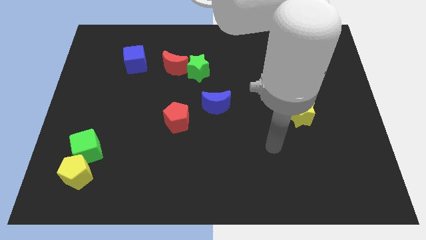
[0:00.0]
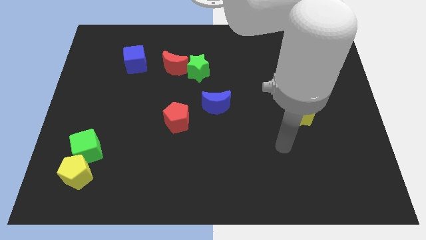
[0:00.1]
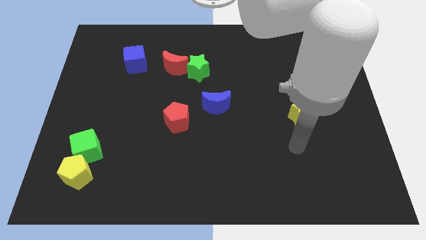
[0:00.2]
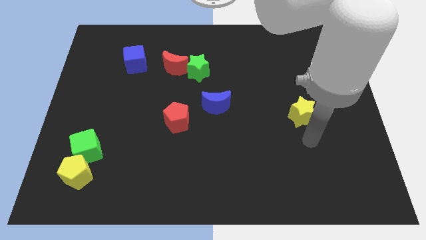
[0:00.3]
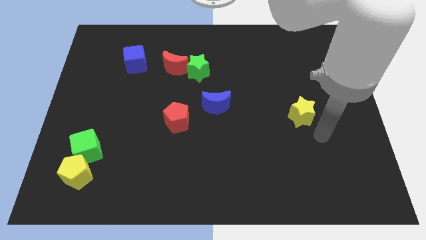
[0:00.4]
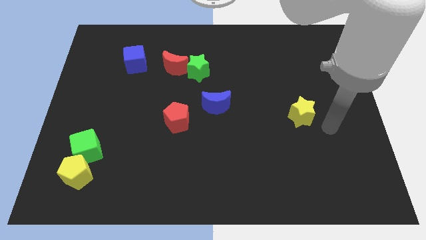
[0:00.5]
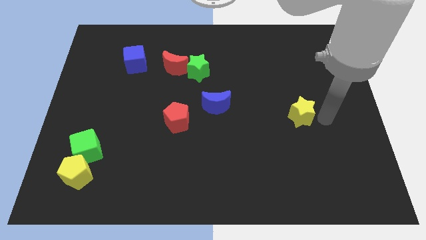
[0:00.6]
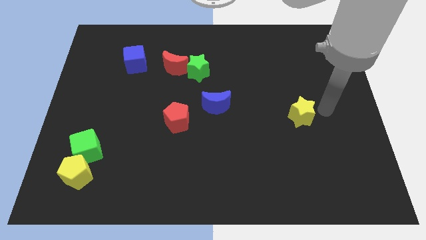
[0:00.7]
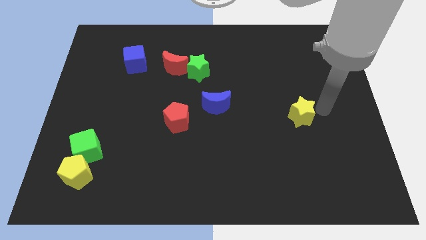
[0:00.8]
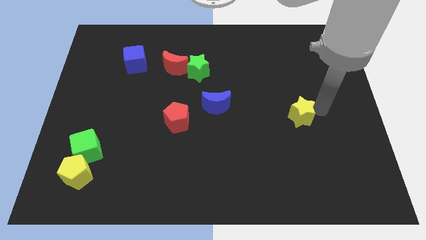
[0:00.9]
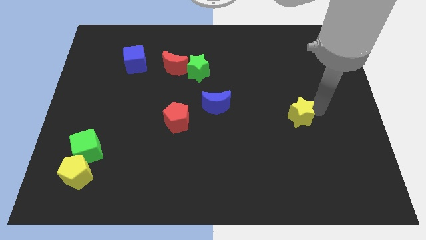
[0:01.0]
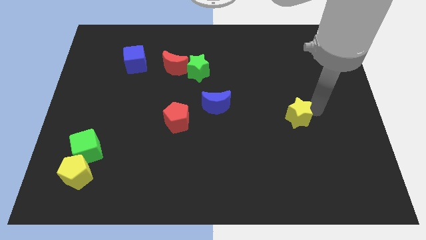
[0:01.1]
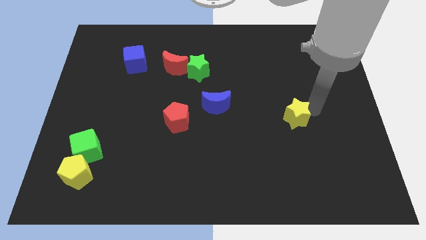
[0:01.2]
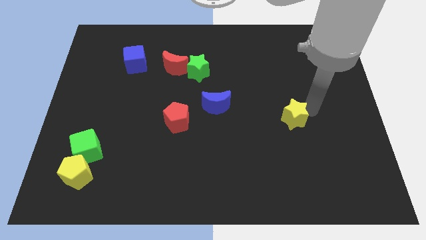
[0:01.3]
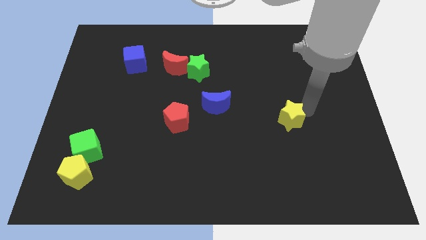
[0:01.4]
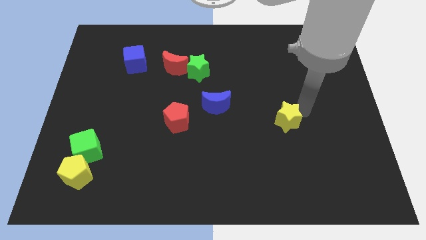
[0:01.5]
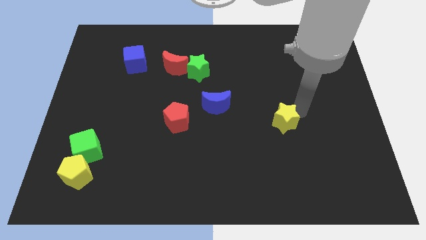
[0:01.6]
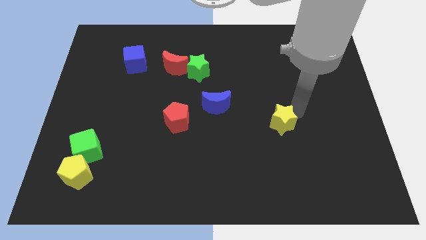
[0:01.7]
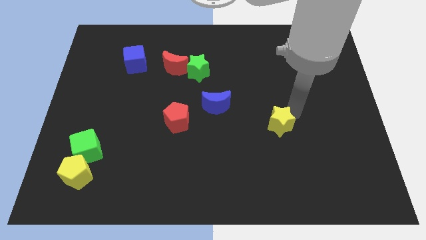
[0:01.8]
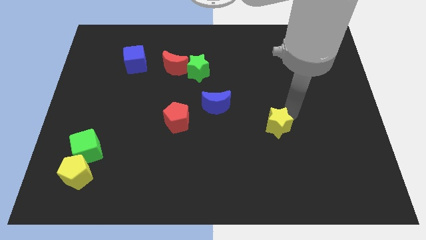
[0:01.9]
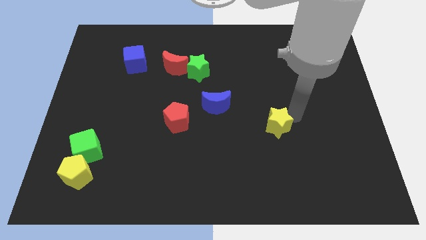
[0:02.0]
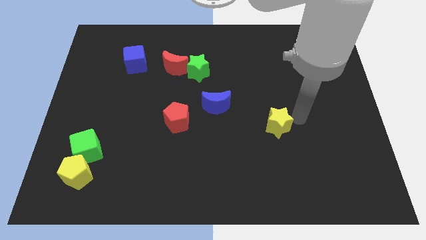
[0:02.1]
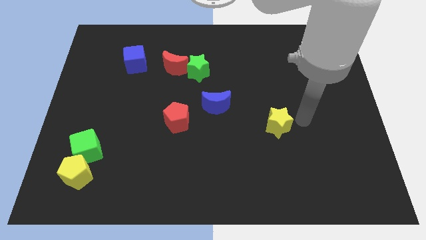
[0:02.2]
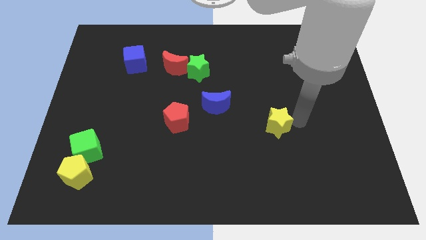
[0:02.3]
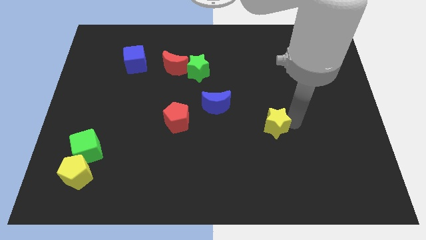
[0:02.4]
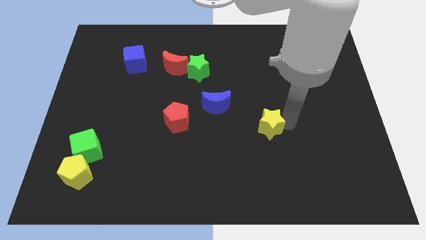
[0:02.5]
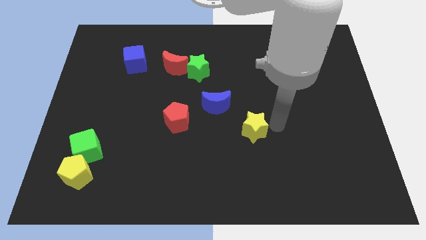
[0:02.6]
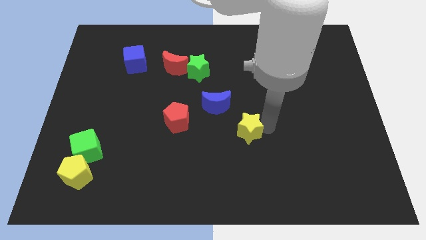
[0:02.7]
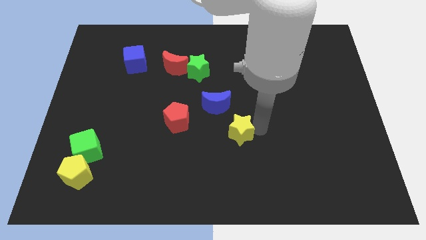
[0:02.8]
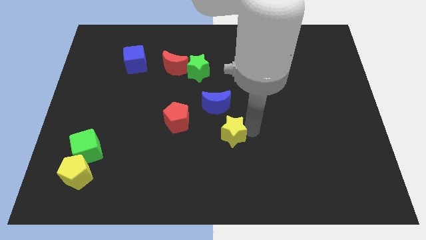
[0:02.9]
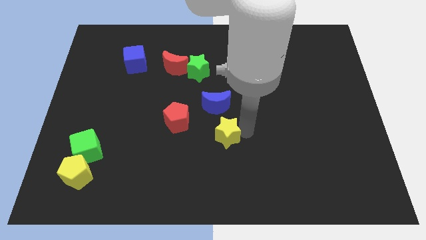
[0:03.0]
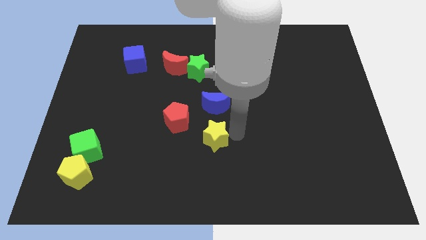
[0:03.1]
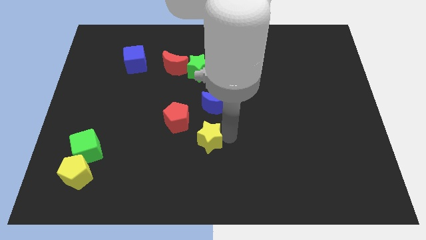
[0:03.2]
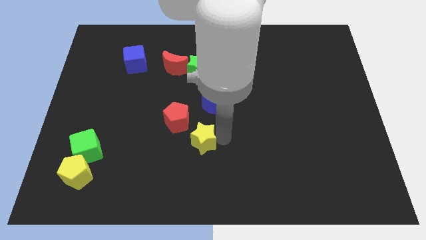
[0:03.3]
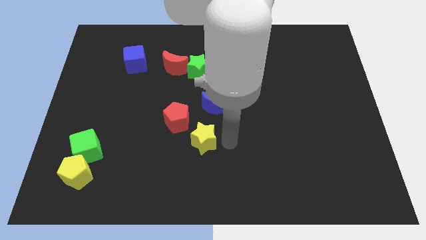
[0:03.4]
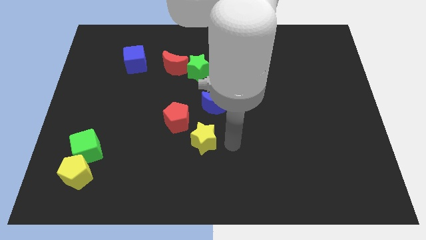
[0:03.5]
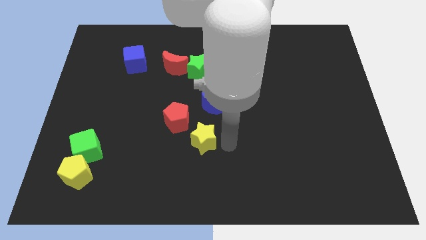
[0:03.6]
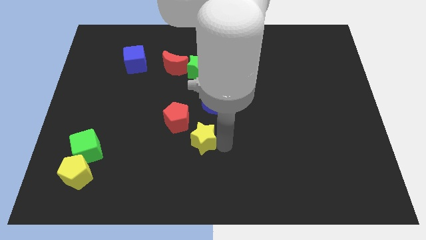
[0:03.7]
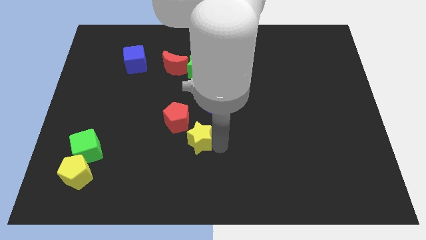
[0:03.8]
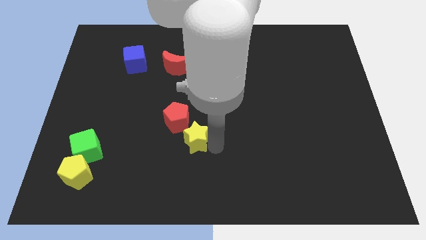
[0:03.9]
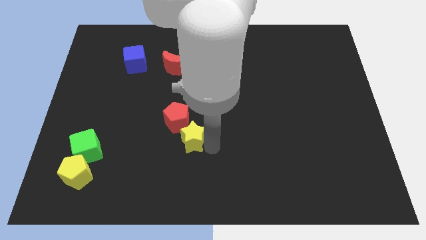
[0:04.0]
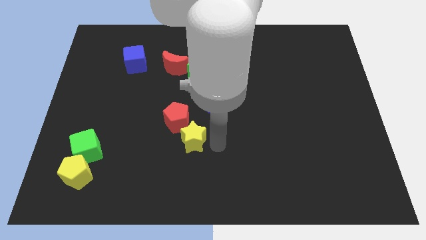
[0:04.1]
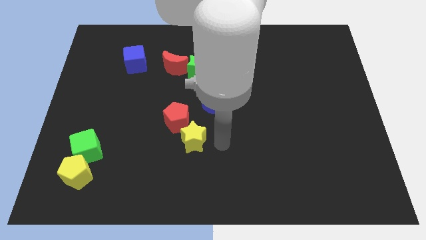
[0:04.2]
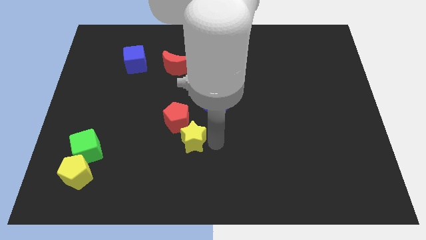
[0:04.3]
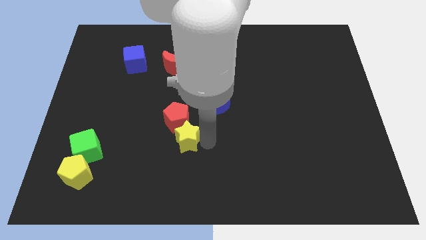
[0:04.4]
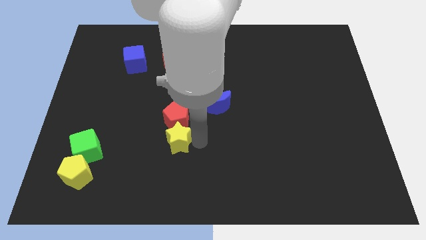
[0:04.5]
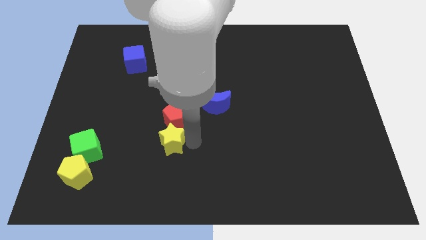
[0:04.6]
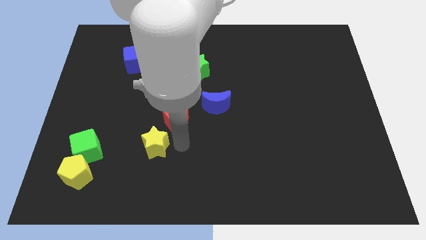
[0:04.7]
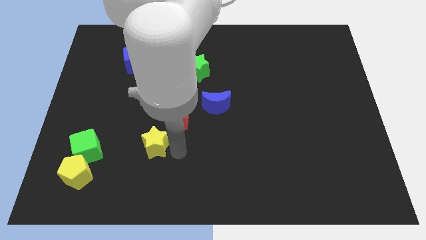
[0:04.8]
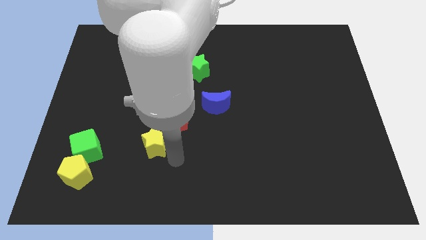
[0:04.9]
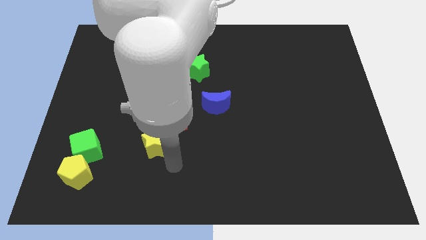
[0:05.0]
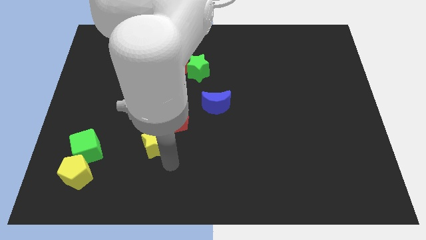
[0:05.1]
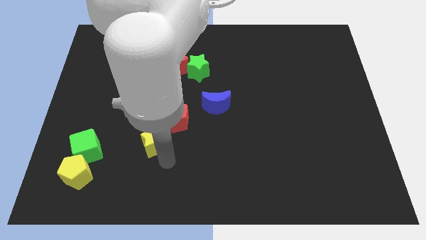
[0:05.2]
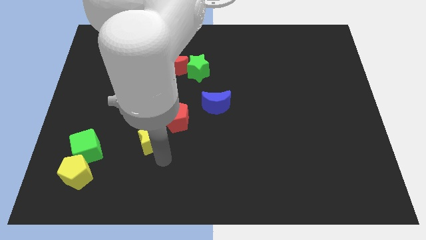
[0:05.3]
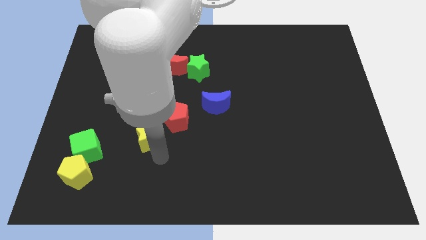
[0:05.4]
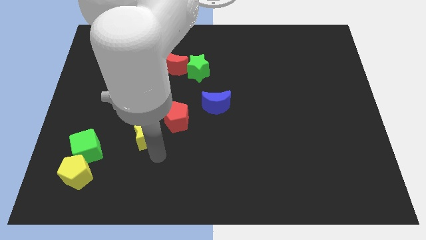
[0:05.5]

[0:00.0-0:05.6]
put the yellow star to the left of the red pentagon

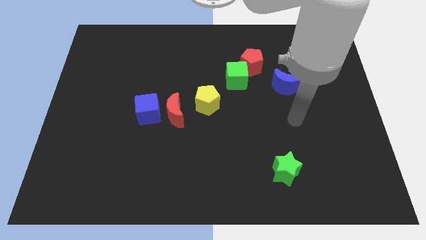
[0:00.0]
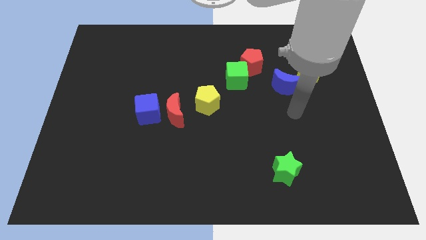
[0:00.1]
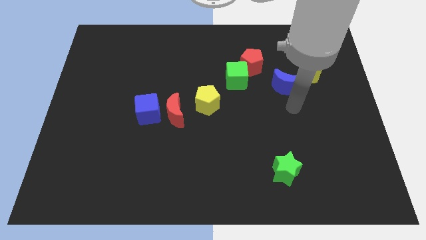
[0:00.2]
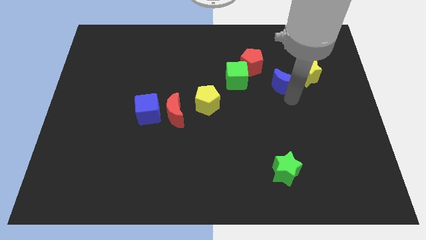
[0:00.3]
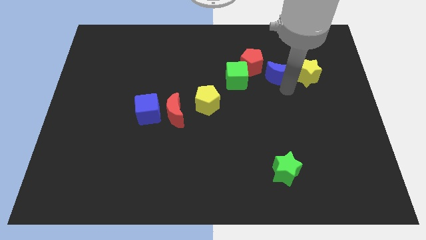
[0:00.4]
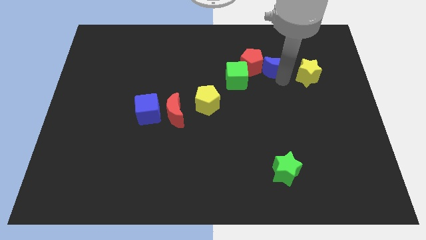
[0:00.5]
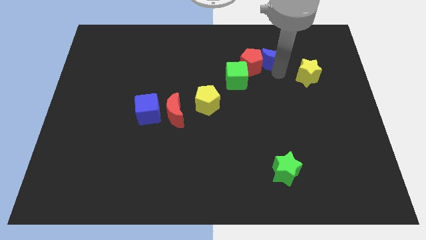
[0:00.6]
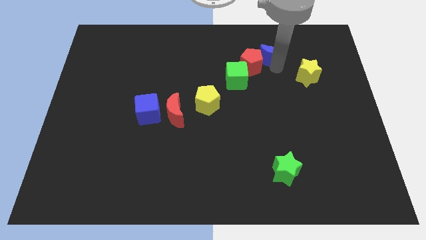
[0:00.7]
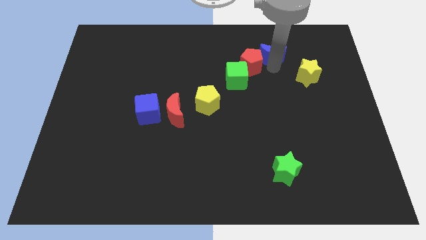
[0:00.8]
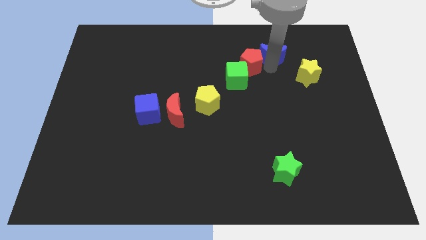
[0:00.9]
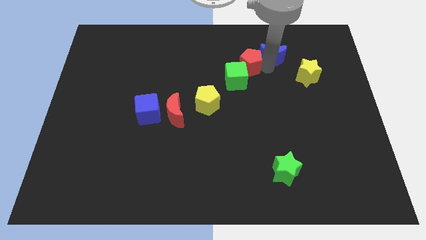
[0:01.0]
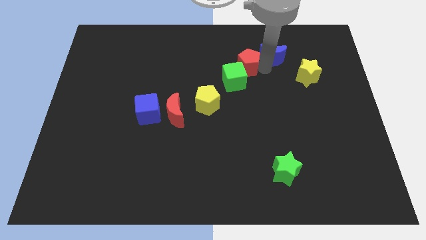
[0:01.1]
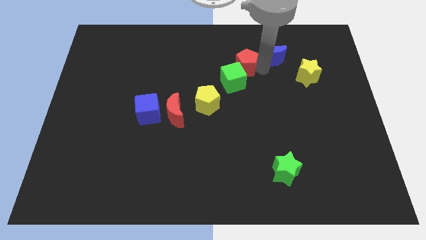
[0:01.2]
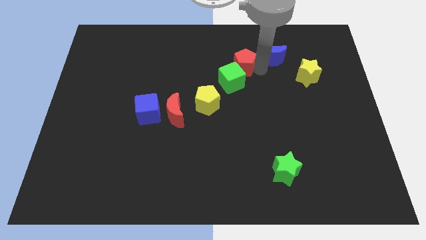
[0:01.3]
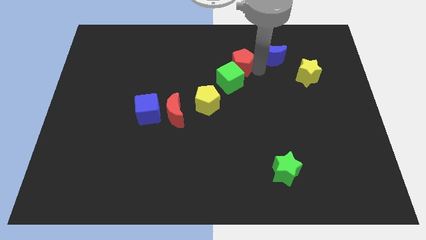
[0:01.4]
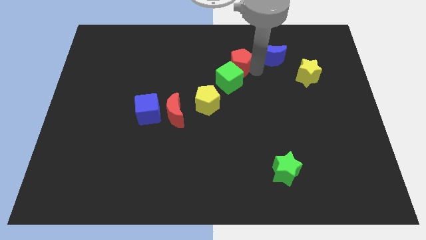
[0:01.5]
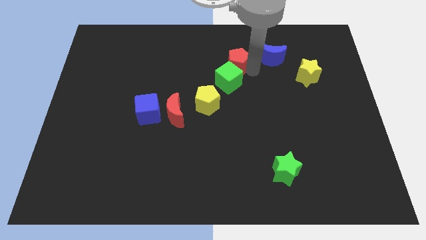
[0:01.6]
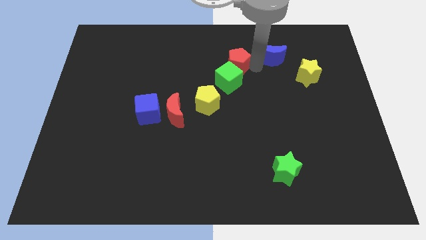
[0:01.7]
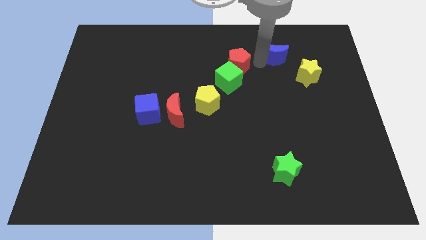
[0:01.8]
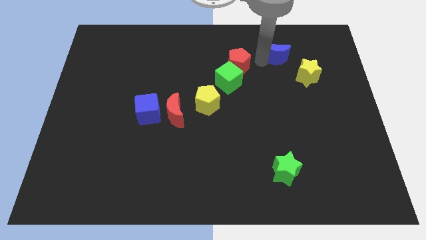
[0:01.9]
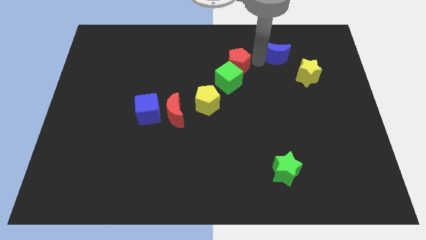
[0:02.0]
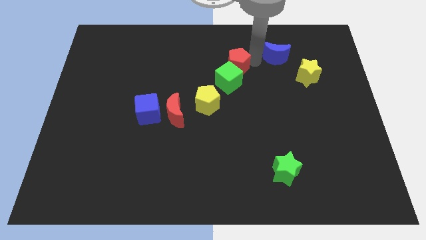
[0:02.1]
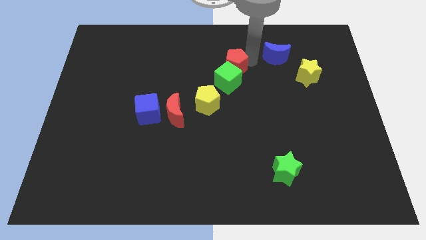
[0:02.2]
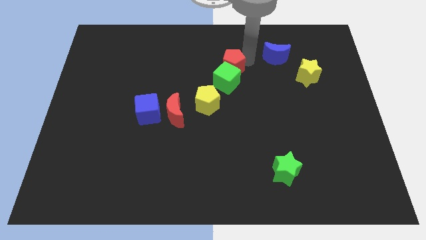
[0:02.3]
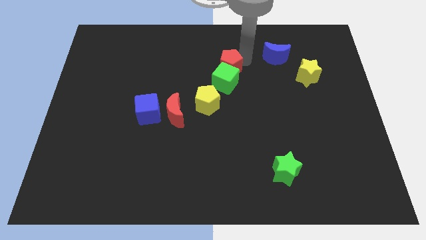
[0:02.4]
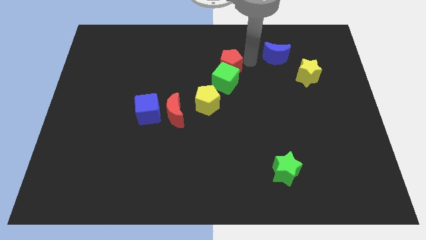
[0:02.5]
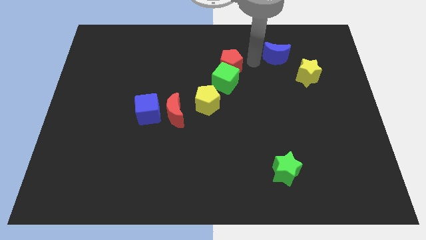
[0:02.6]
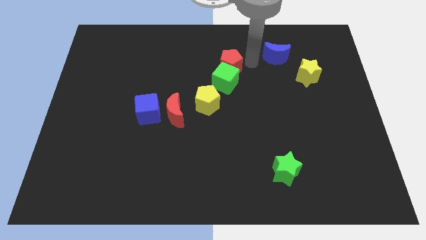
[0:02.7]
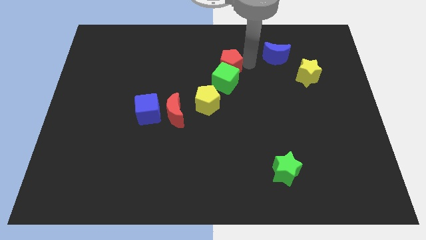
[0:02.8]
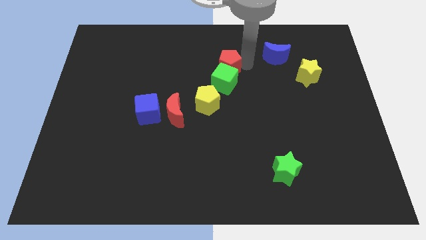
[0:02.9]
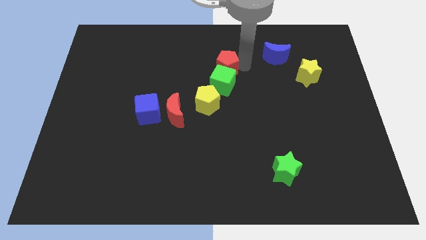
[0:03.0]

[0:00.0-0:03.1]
slide the red pentagon to the top of the yellow pentagon
